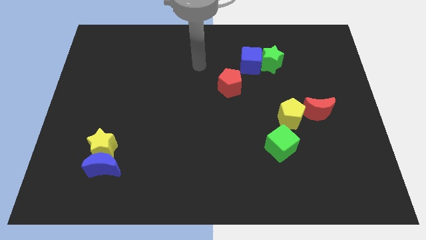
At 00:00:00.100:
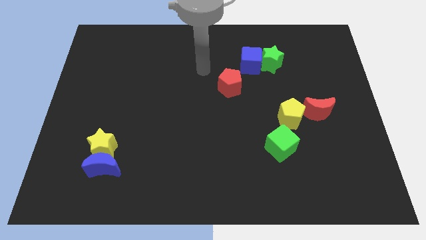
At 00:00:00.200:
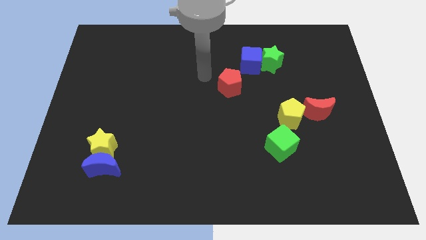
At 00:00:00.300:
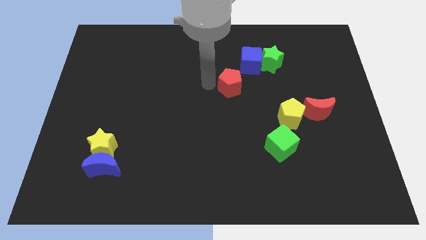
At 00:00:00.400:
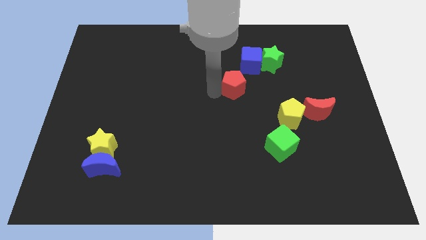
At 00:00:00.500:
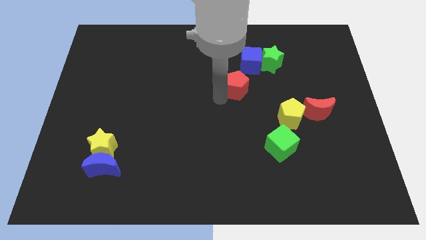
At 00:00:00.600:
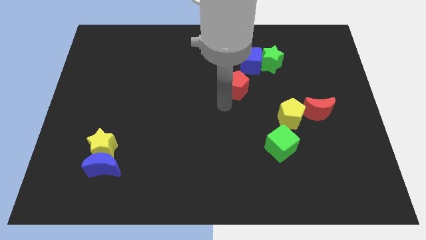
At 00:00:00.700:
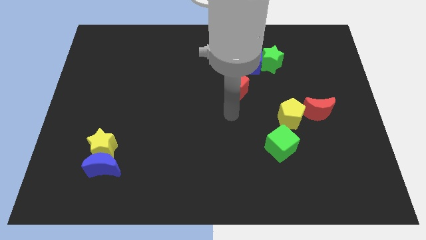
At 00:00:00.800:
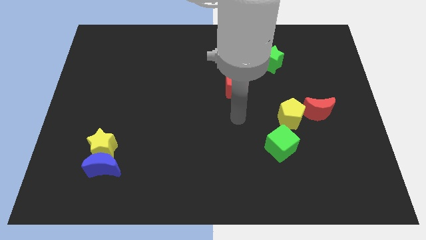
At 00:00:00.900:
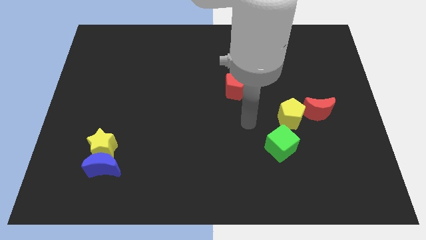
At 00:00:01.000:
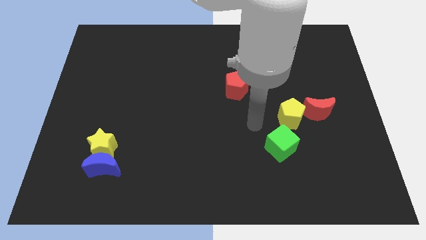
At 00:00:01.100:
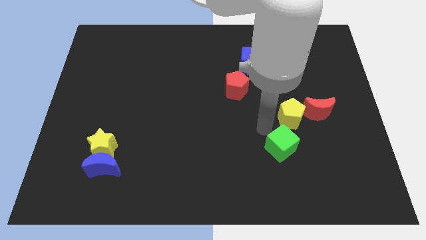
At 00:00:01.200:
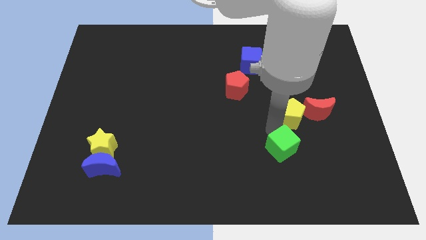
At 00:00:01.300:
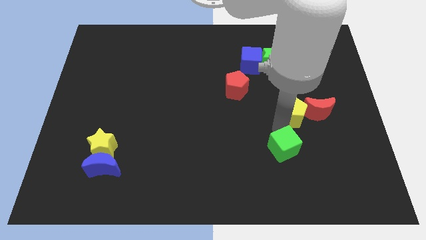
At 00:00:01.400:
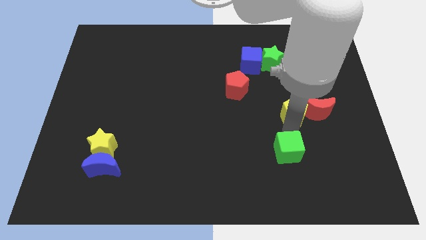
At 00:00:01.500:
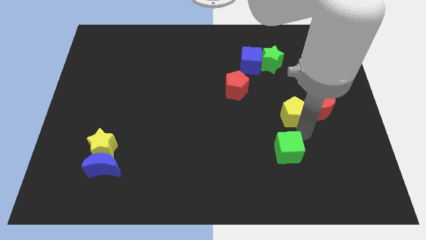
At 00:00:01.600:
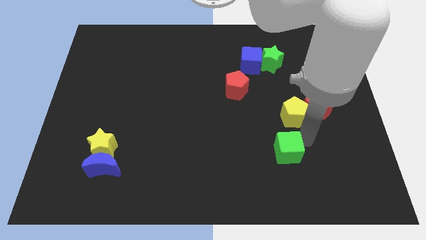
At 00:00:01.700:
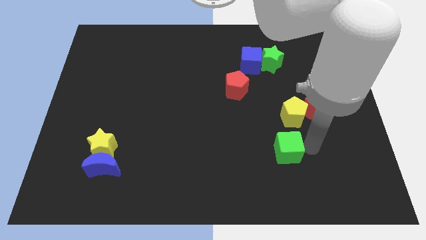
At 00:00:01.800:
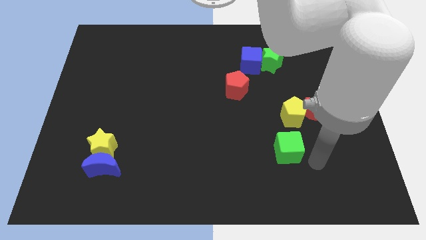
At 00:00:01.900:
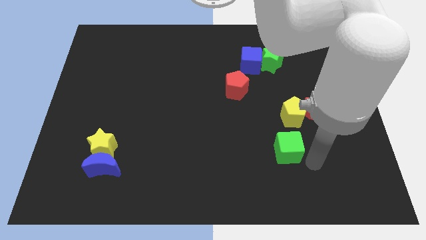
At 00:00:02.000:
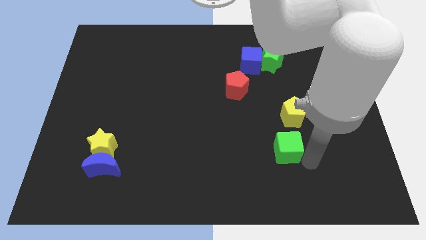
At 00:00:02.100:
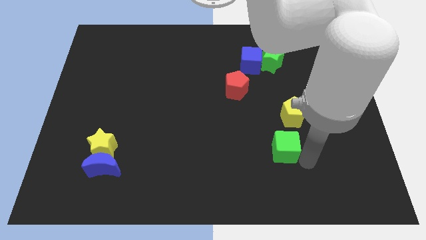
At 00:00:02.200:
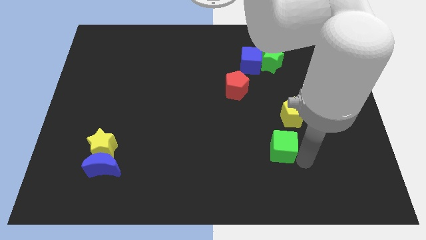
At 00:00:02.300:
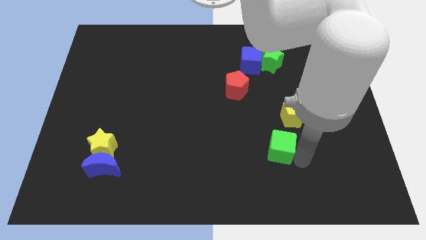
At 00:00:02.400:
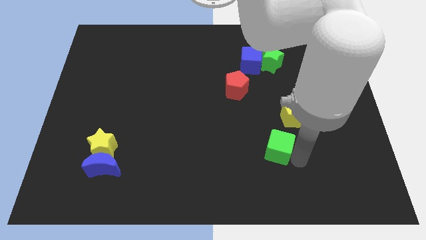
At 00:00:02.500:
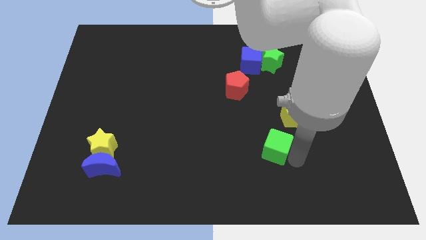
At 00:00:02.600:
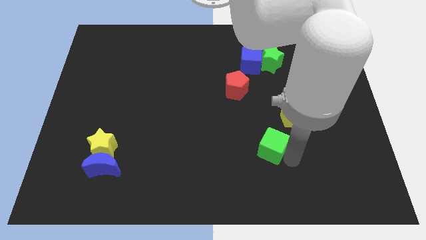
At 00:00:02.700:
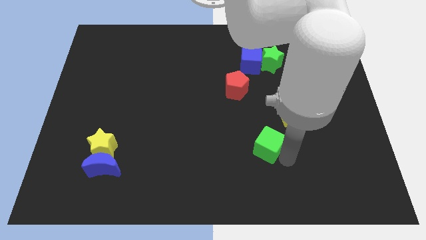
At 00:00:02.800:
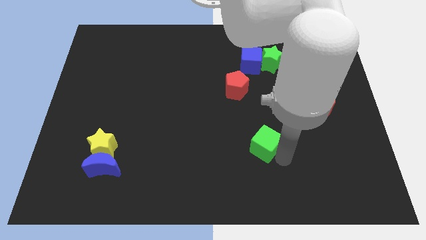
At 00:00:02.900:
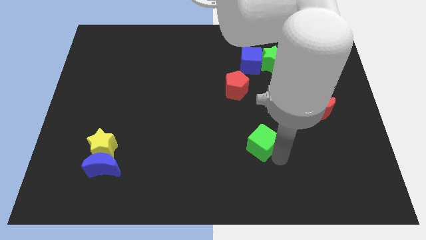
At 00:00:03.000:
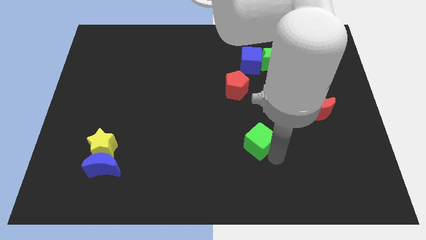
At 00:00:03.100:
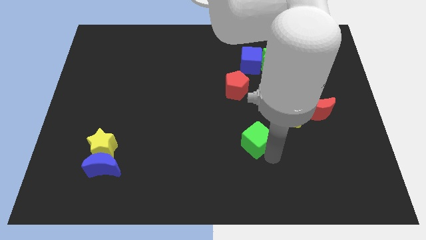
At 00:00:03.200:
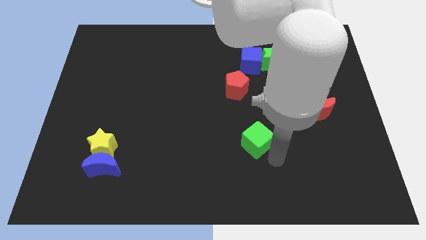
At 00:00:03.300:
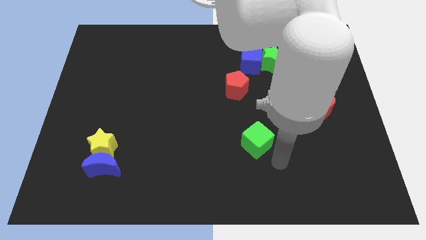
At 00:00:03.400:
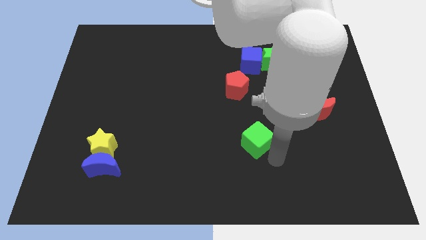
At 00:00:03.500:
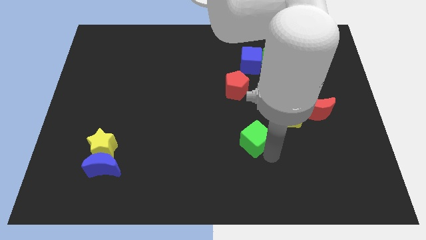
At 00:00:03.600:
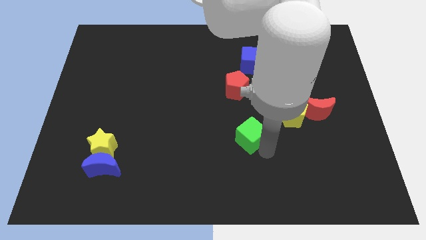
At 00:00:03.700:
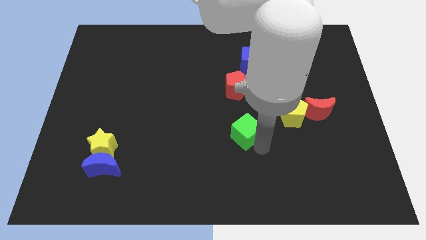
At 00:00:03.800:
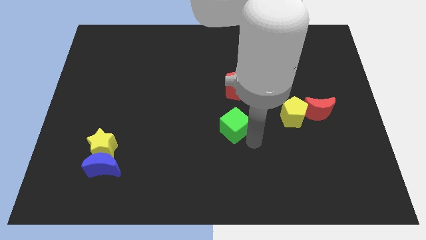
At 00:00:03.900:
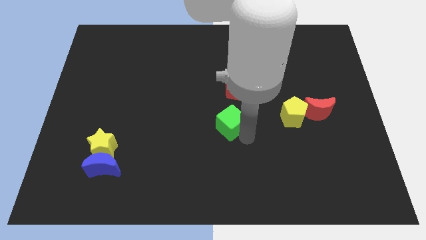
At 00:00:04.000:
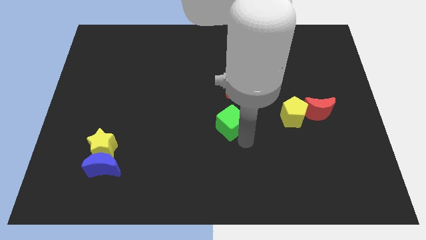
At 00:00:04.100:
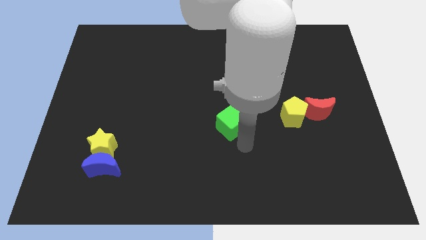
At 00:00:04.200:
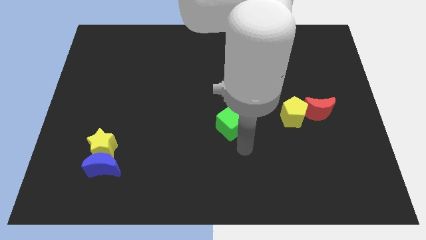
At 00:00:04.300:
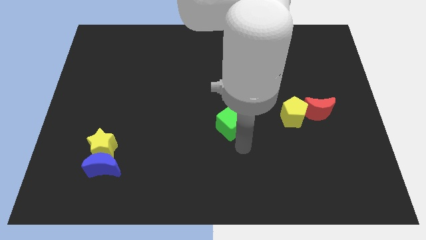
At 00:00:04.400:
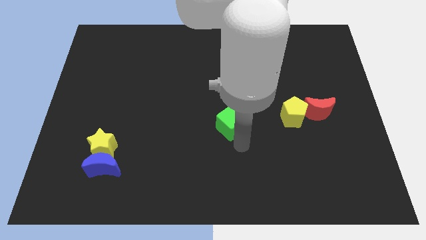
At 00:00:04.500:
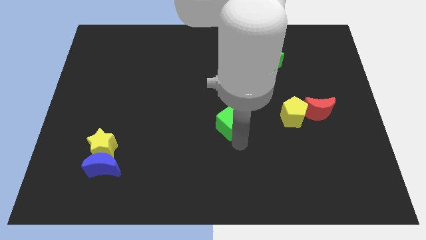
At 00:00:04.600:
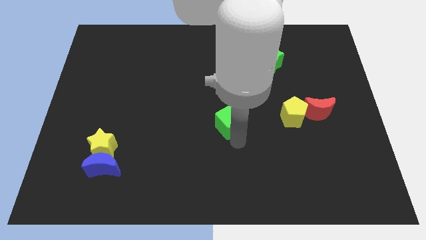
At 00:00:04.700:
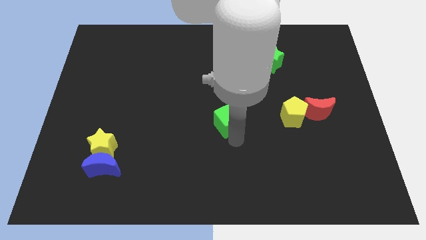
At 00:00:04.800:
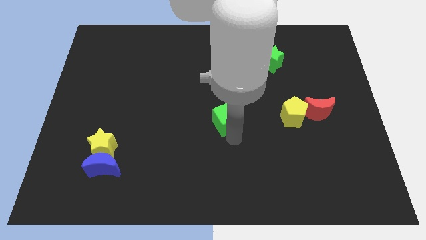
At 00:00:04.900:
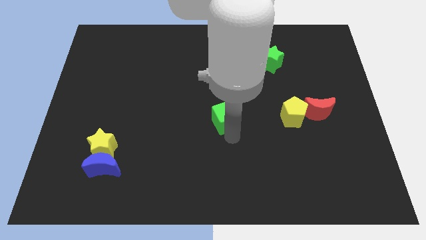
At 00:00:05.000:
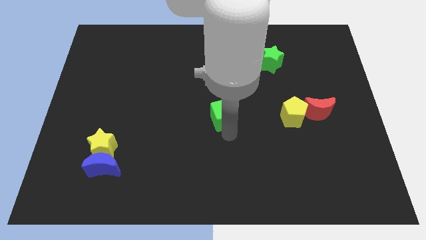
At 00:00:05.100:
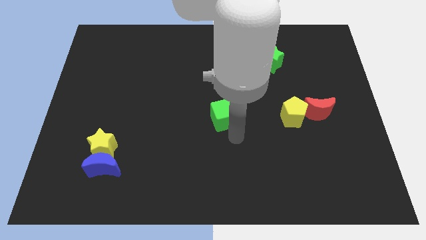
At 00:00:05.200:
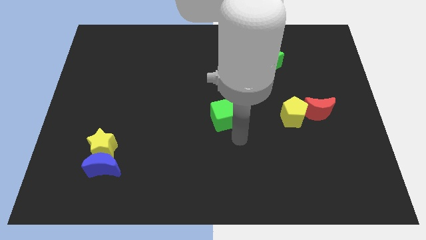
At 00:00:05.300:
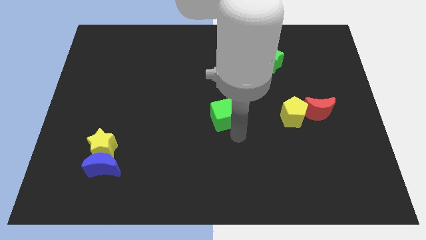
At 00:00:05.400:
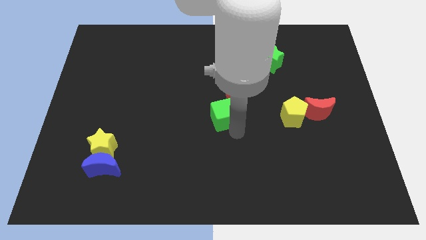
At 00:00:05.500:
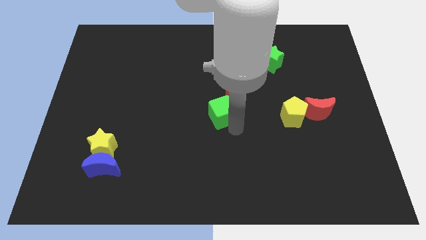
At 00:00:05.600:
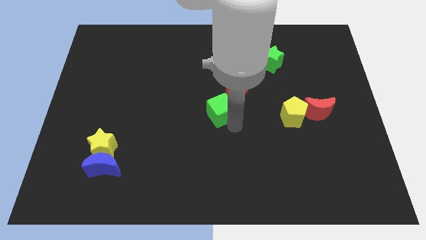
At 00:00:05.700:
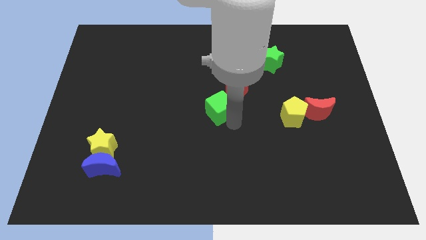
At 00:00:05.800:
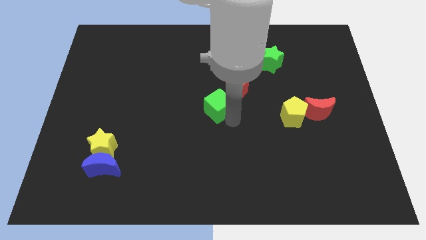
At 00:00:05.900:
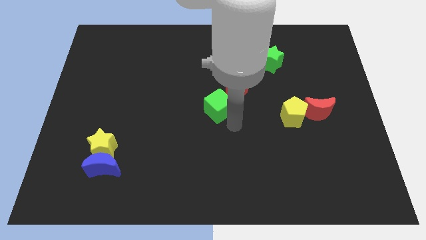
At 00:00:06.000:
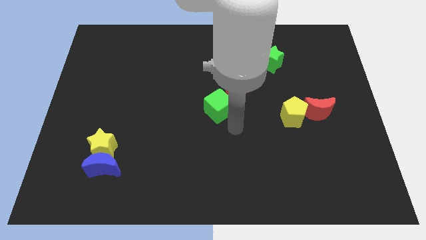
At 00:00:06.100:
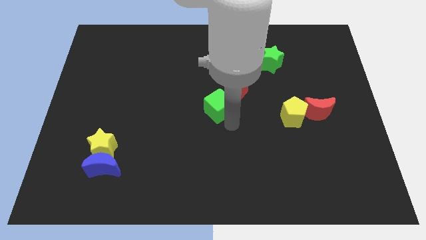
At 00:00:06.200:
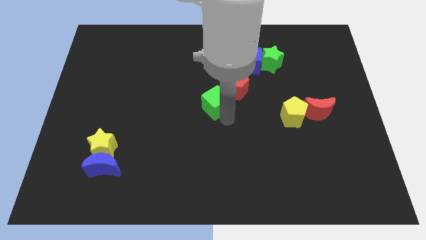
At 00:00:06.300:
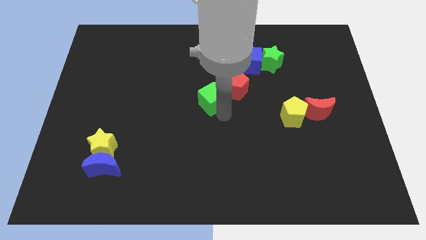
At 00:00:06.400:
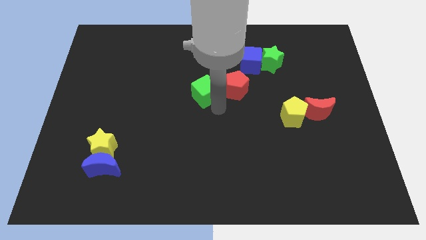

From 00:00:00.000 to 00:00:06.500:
push the green cube upwards and left diagonally

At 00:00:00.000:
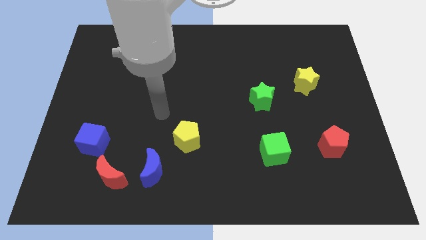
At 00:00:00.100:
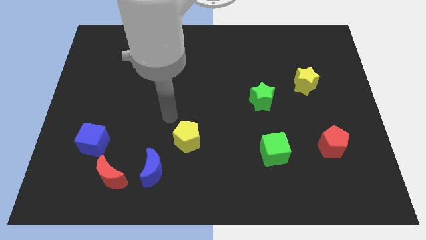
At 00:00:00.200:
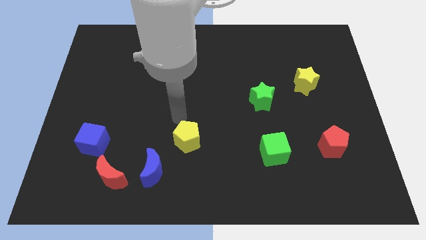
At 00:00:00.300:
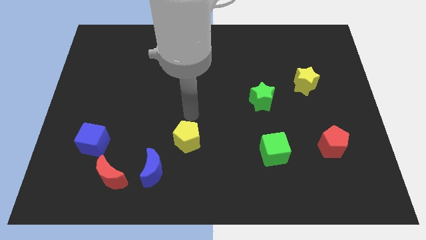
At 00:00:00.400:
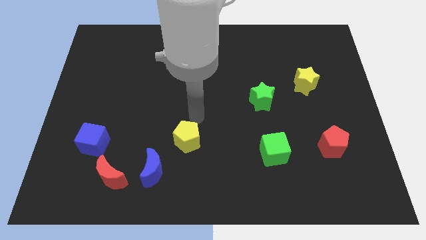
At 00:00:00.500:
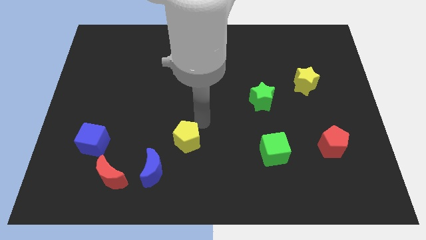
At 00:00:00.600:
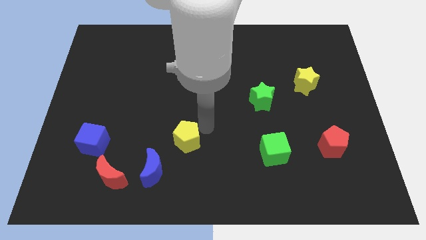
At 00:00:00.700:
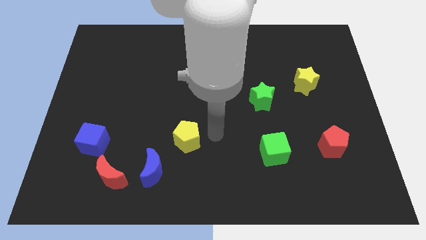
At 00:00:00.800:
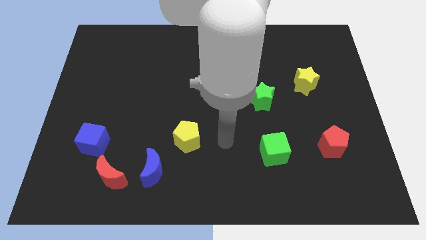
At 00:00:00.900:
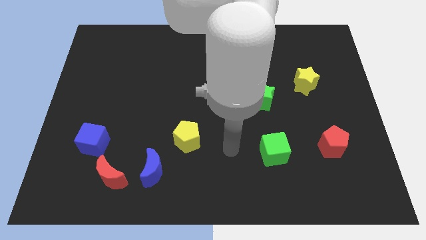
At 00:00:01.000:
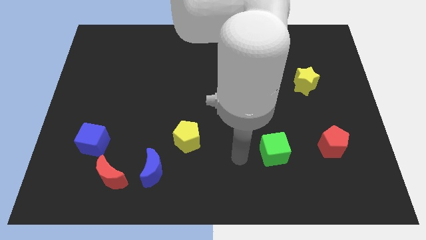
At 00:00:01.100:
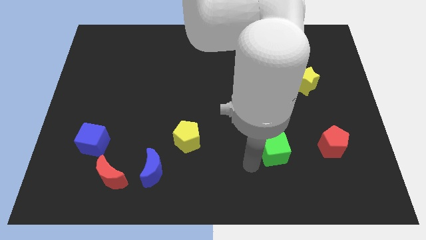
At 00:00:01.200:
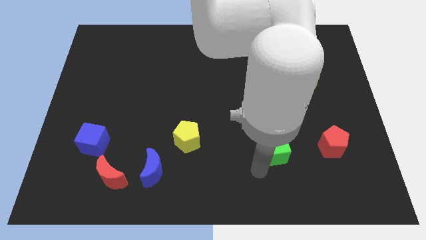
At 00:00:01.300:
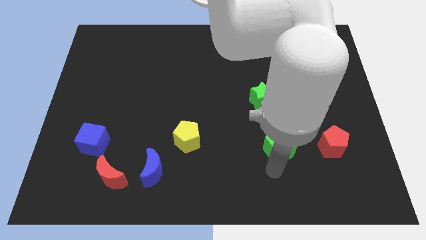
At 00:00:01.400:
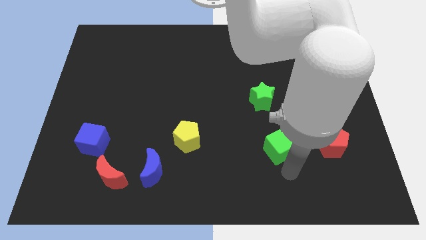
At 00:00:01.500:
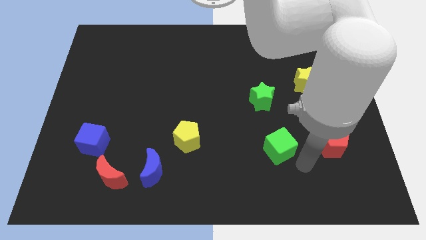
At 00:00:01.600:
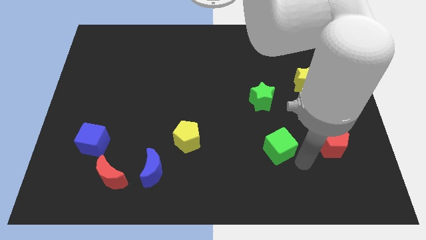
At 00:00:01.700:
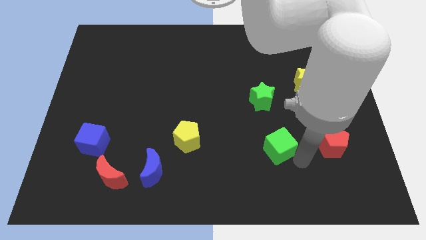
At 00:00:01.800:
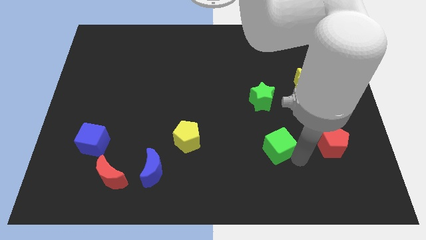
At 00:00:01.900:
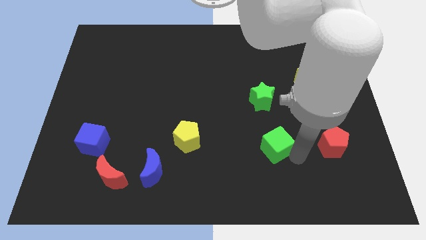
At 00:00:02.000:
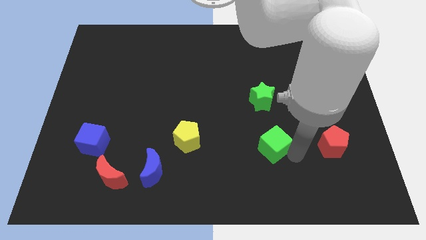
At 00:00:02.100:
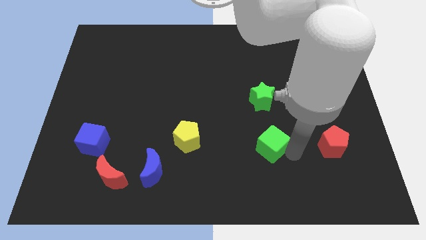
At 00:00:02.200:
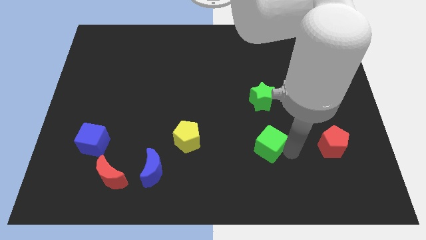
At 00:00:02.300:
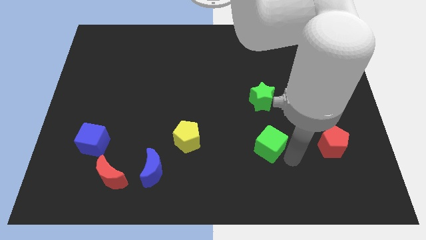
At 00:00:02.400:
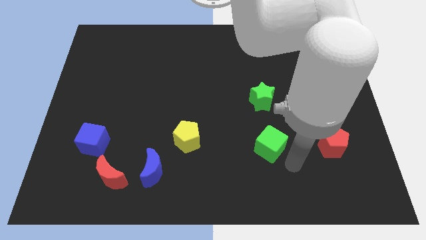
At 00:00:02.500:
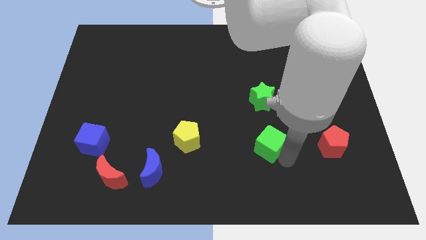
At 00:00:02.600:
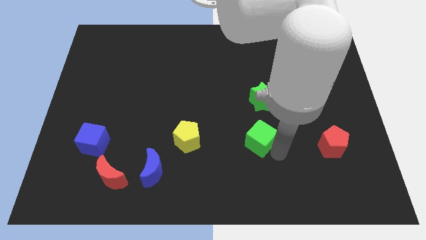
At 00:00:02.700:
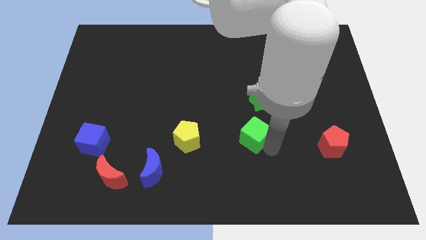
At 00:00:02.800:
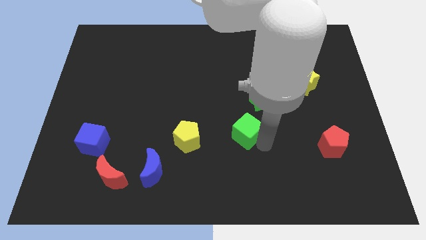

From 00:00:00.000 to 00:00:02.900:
move the green cube slightly diagonally up and to the left
